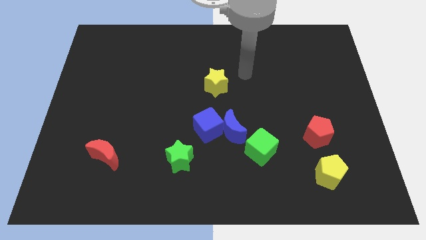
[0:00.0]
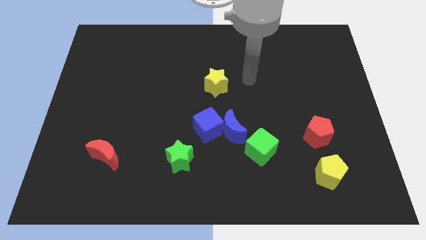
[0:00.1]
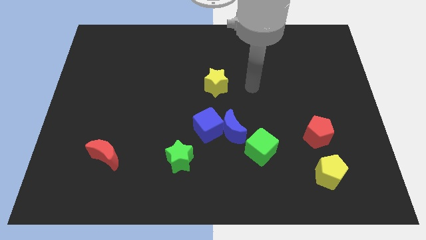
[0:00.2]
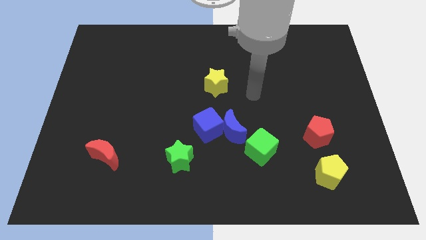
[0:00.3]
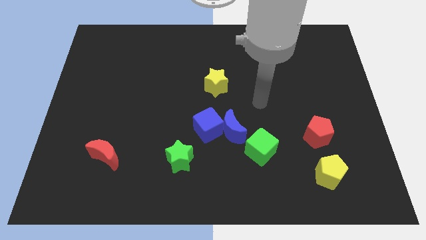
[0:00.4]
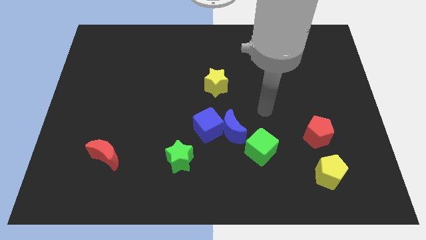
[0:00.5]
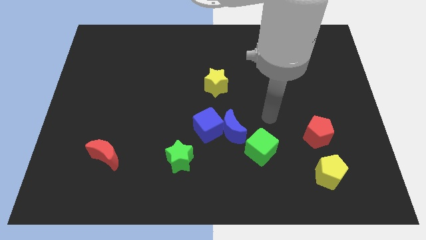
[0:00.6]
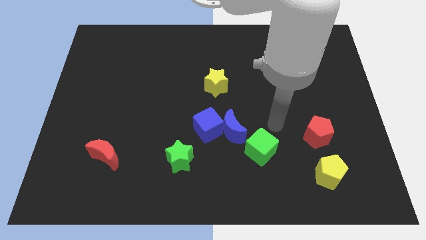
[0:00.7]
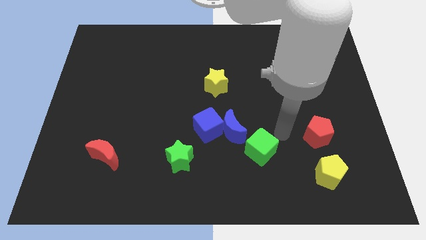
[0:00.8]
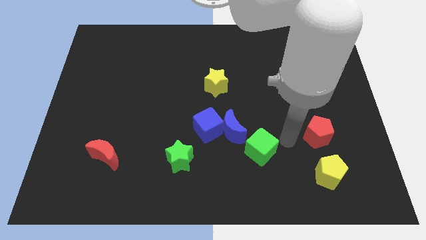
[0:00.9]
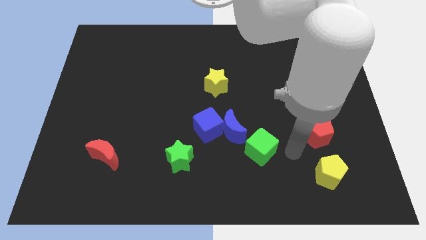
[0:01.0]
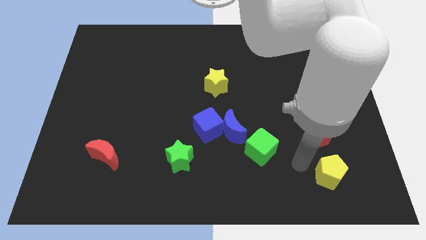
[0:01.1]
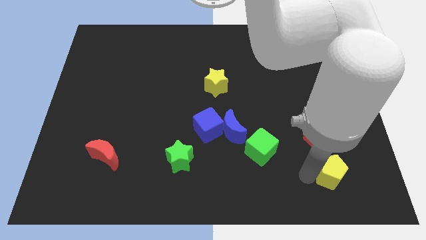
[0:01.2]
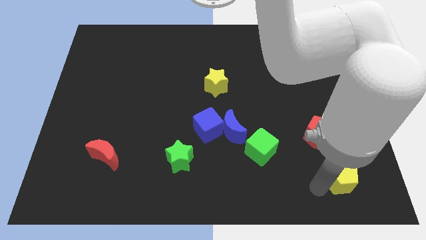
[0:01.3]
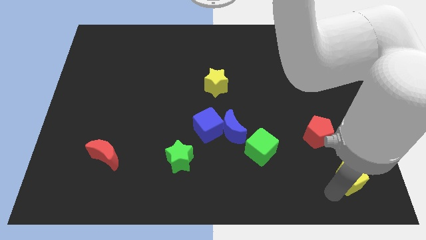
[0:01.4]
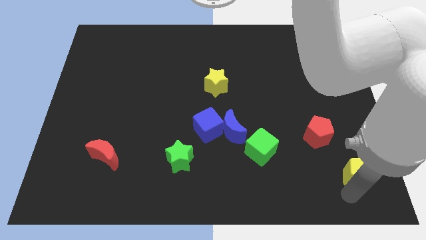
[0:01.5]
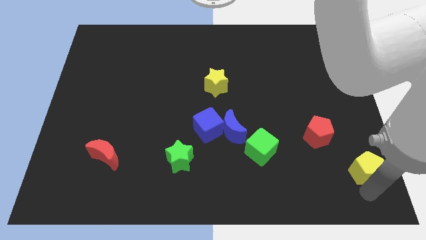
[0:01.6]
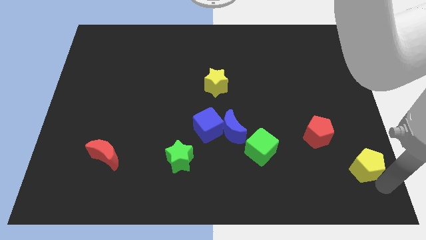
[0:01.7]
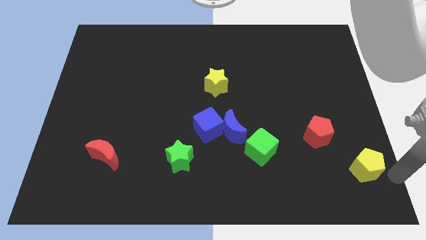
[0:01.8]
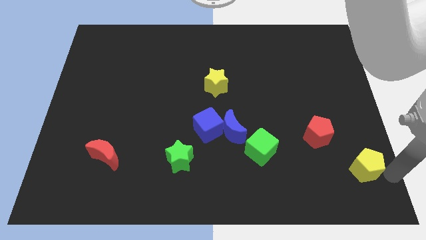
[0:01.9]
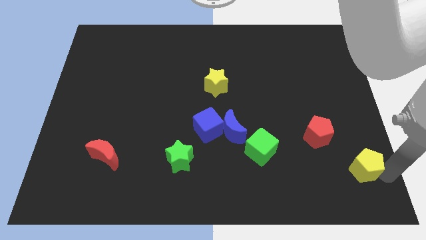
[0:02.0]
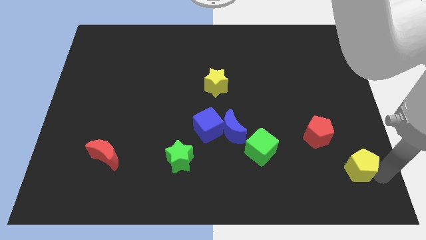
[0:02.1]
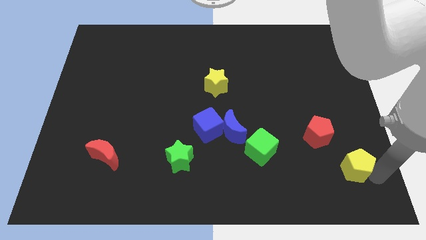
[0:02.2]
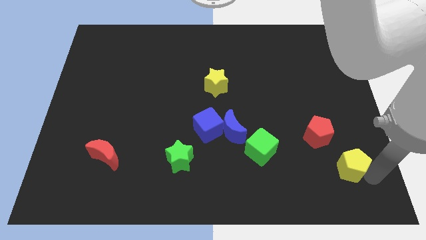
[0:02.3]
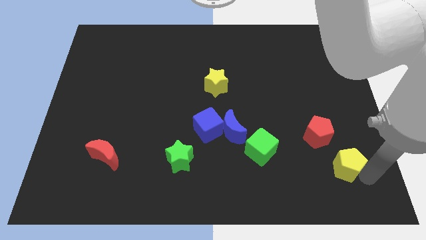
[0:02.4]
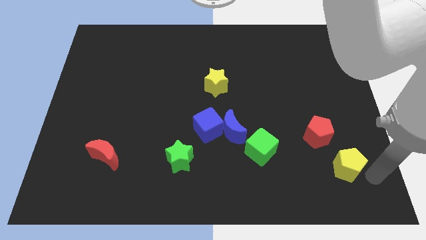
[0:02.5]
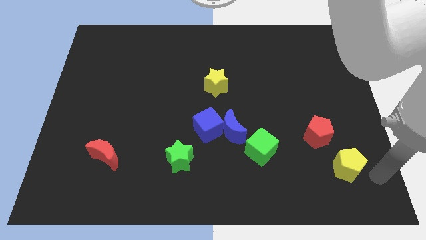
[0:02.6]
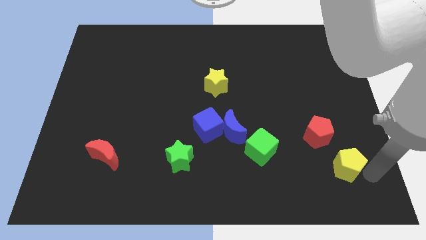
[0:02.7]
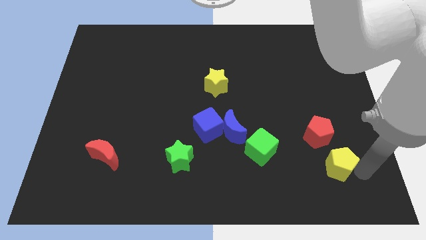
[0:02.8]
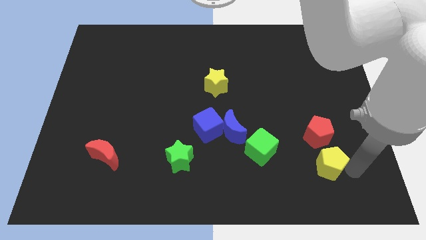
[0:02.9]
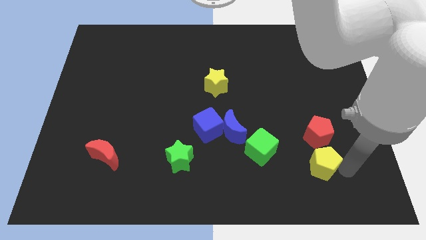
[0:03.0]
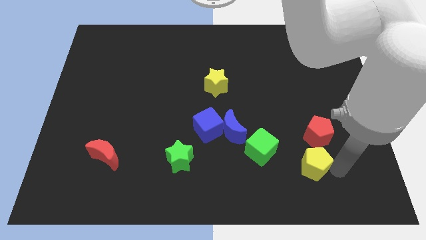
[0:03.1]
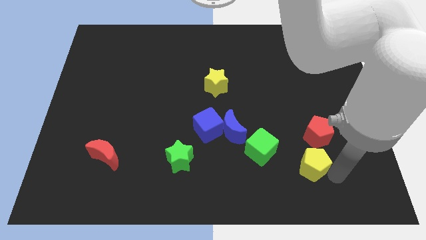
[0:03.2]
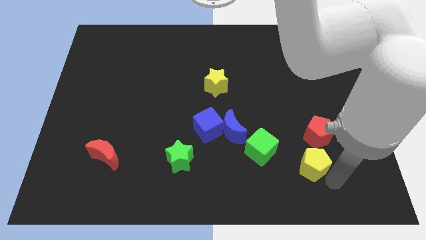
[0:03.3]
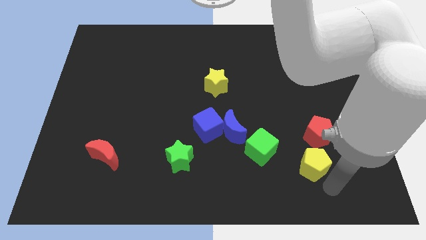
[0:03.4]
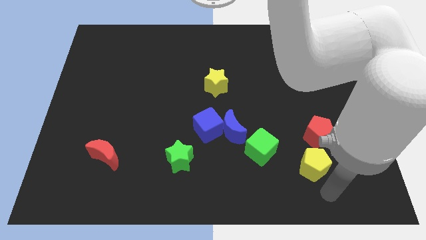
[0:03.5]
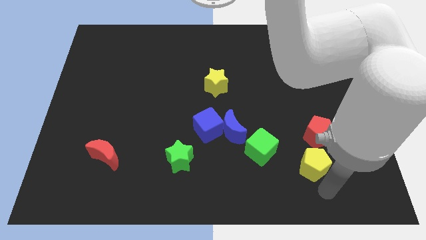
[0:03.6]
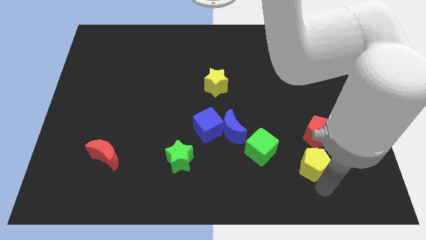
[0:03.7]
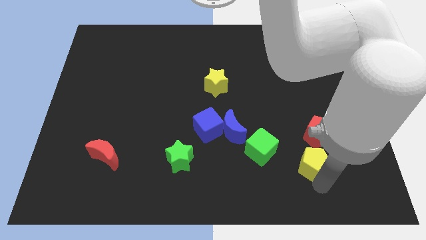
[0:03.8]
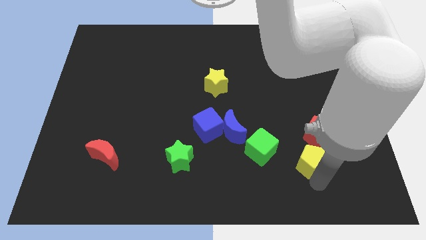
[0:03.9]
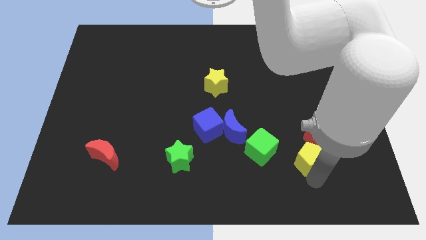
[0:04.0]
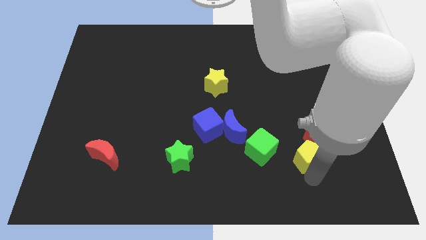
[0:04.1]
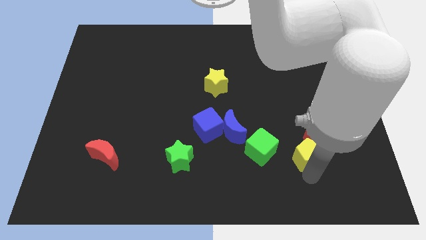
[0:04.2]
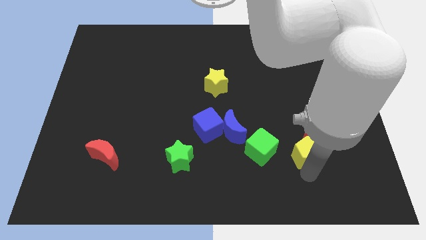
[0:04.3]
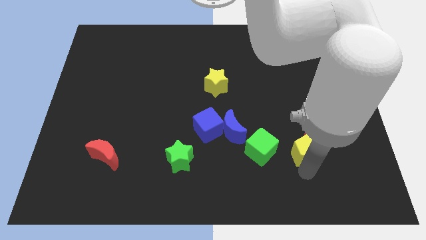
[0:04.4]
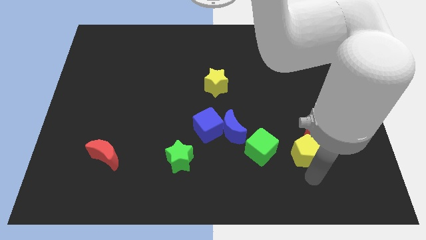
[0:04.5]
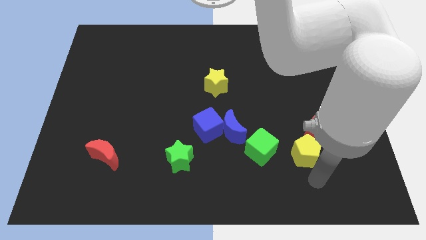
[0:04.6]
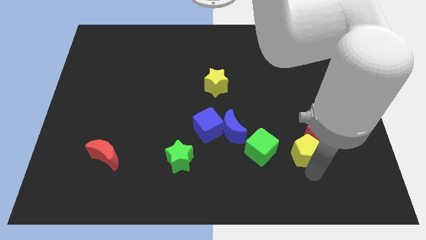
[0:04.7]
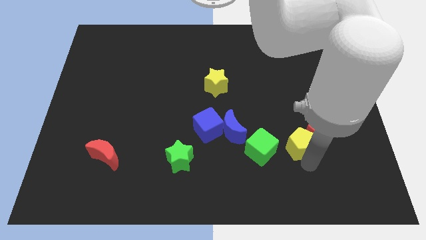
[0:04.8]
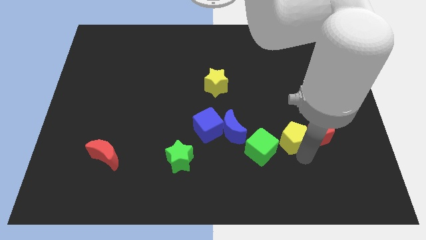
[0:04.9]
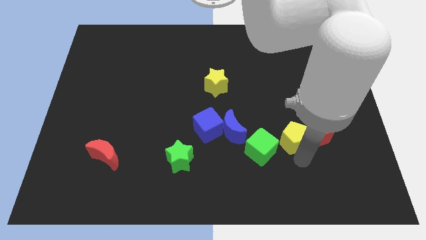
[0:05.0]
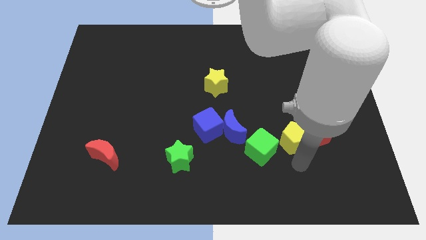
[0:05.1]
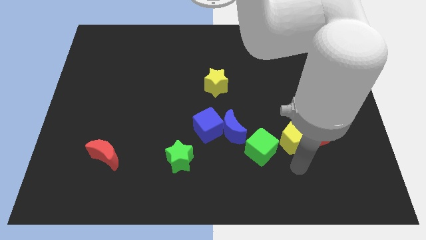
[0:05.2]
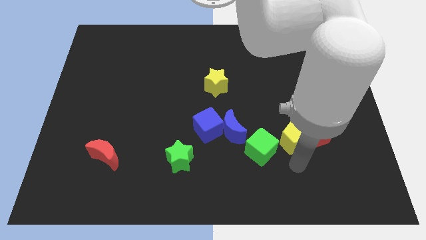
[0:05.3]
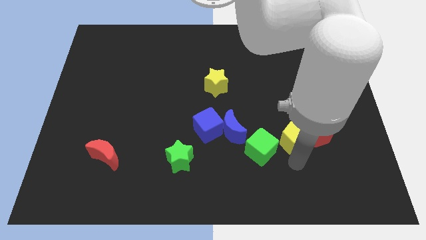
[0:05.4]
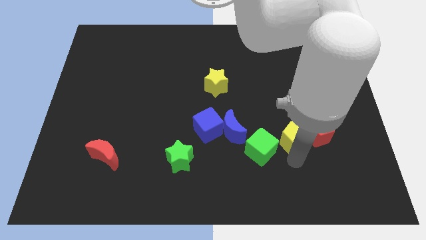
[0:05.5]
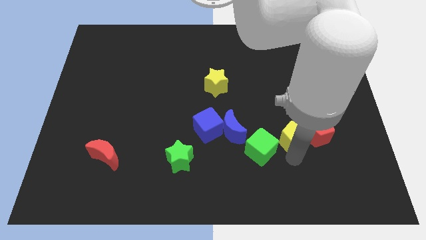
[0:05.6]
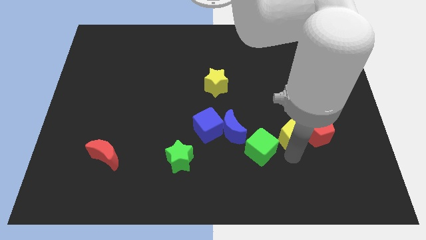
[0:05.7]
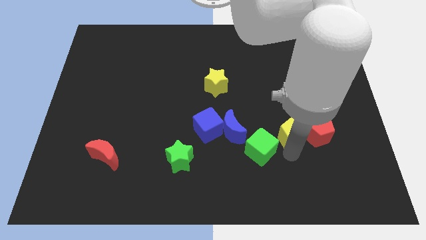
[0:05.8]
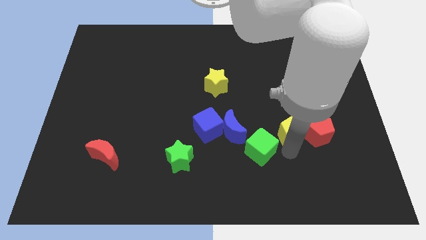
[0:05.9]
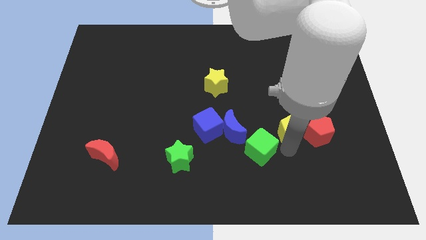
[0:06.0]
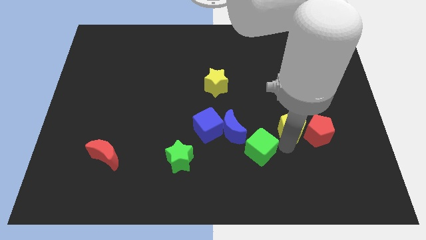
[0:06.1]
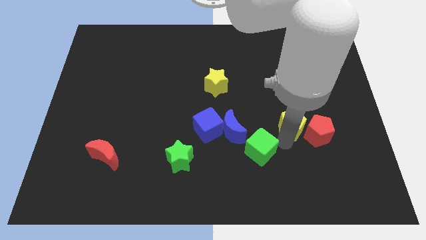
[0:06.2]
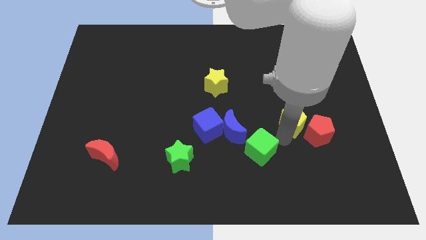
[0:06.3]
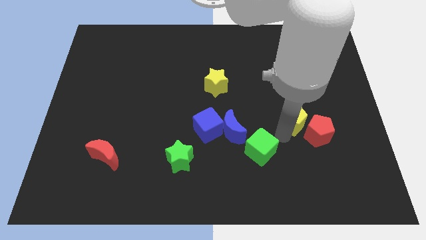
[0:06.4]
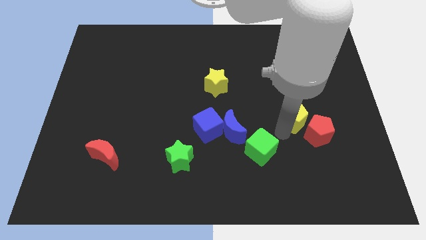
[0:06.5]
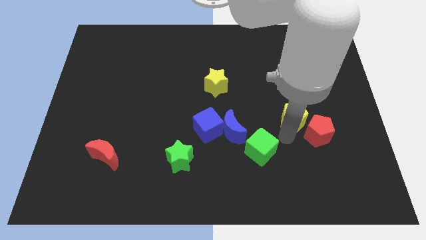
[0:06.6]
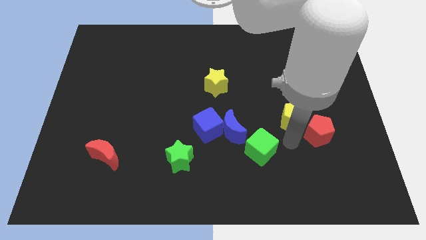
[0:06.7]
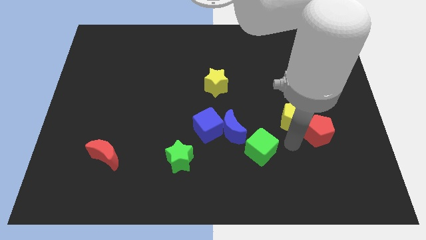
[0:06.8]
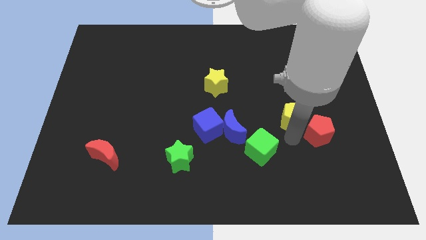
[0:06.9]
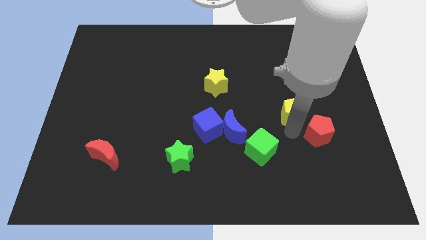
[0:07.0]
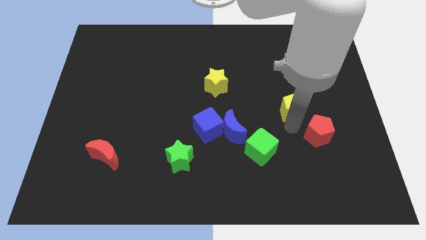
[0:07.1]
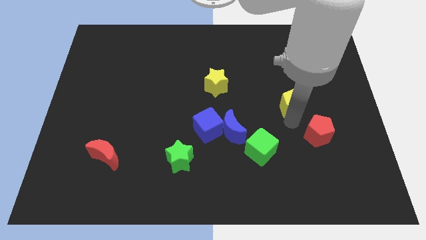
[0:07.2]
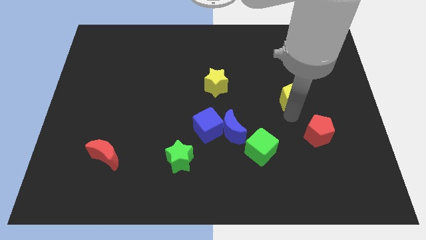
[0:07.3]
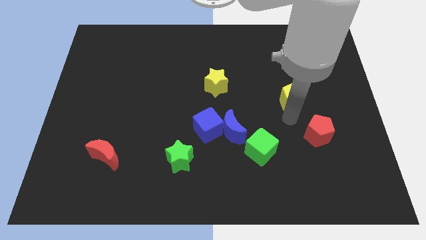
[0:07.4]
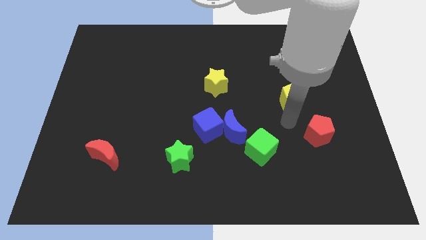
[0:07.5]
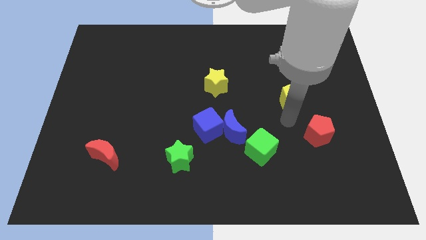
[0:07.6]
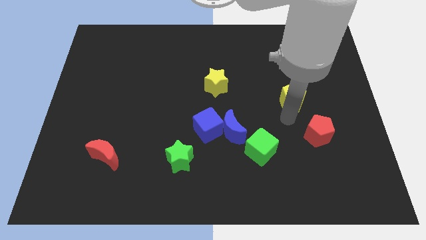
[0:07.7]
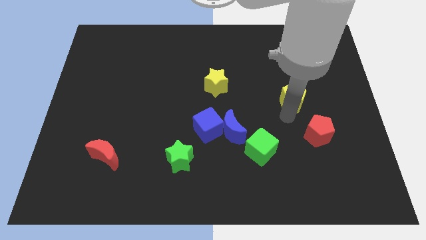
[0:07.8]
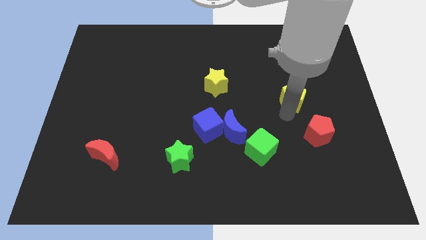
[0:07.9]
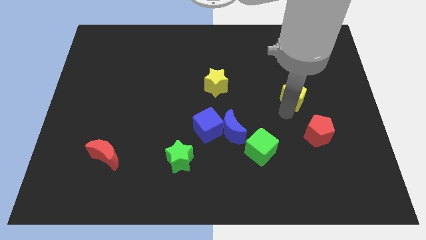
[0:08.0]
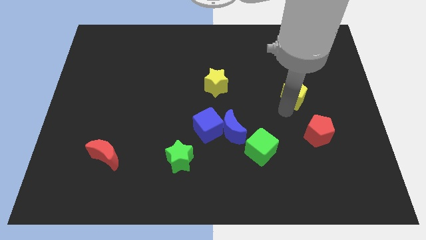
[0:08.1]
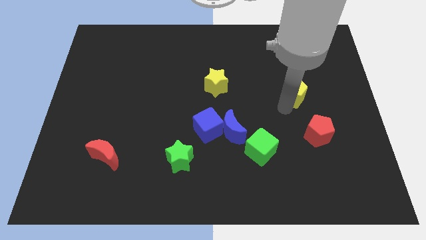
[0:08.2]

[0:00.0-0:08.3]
slide the yellow pentagon up

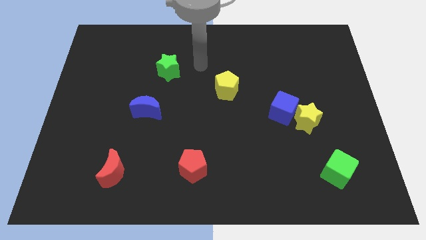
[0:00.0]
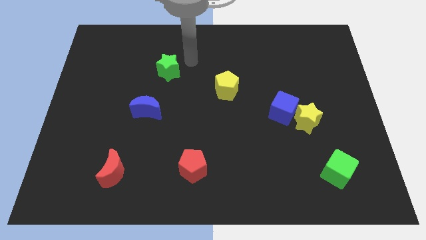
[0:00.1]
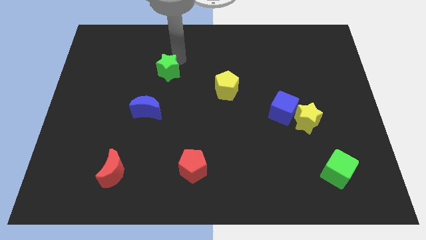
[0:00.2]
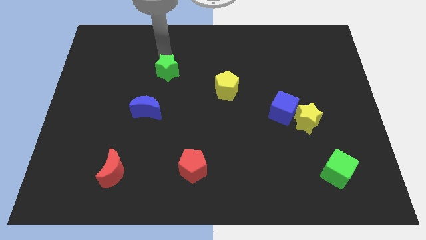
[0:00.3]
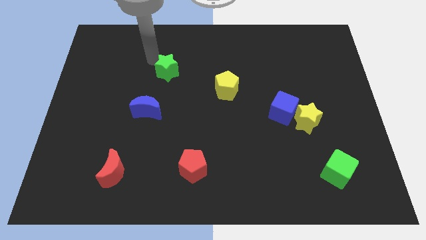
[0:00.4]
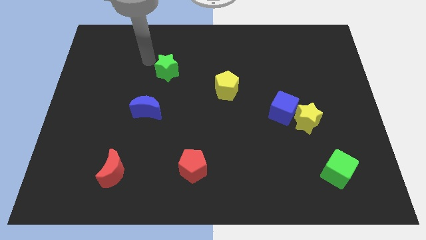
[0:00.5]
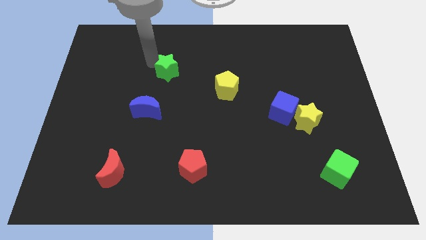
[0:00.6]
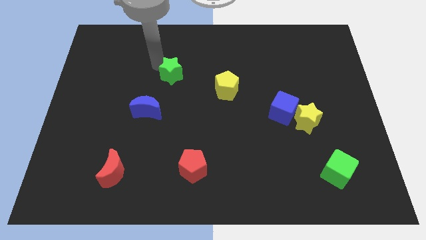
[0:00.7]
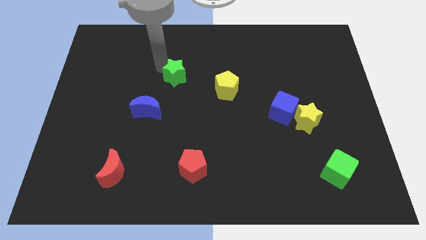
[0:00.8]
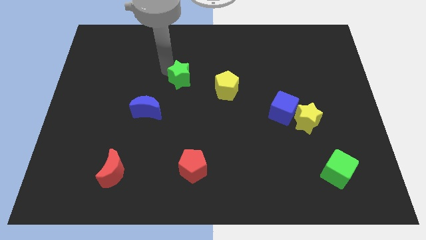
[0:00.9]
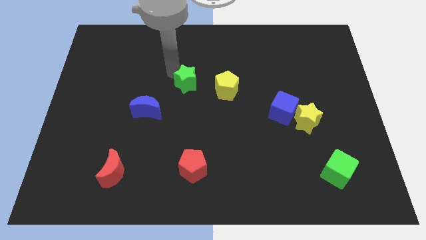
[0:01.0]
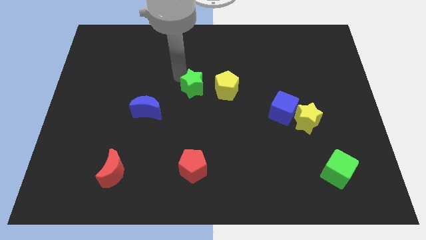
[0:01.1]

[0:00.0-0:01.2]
move the green star down and right diagonally somewhat
